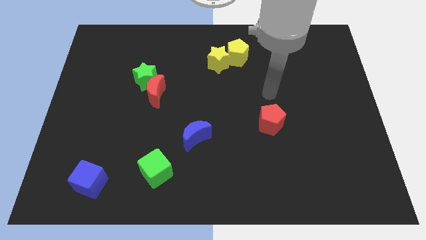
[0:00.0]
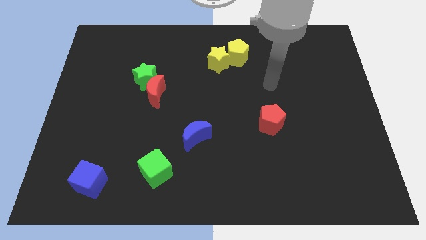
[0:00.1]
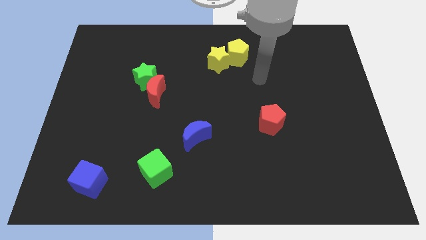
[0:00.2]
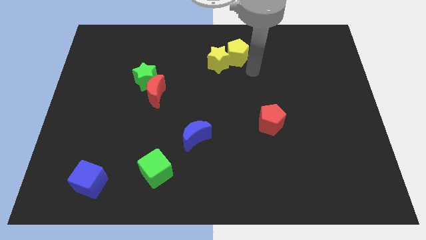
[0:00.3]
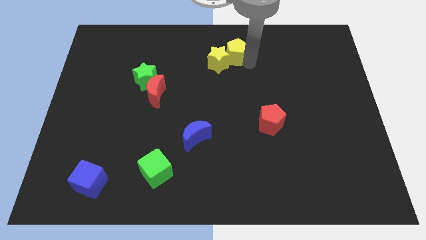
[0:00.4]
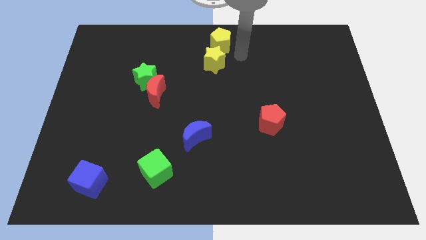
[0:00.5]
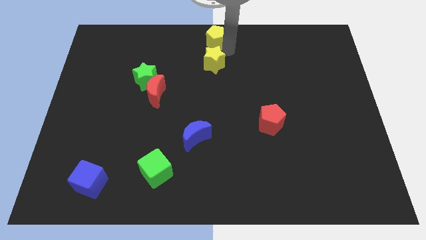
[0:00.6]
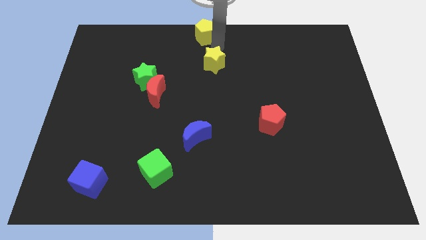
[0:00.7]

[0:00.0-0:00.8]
pull the yellow star apart from the yellow pentagon

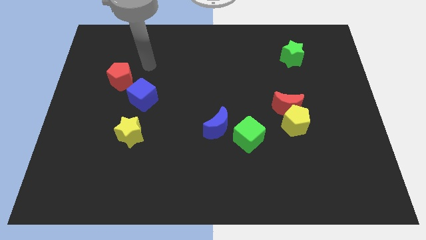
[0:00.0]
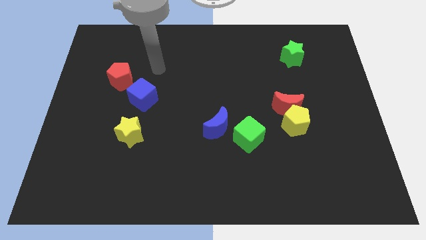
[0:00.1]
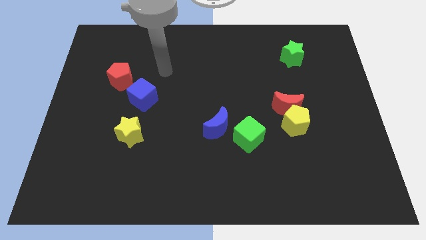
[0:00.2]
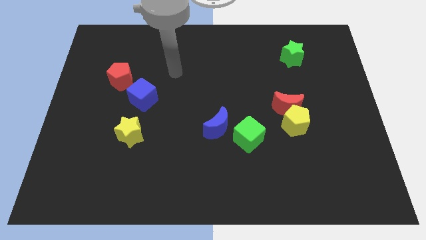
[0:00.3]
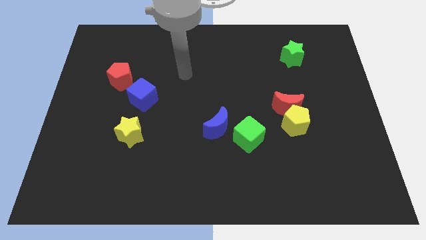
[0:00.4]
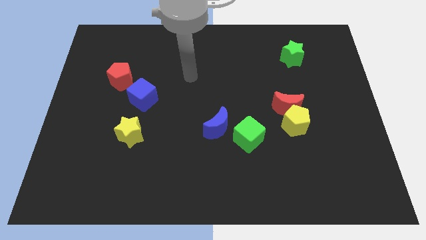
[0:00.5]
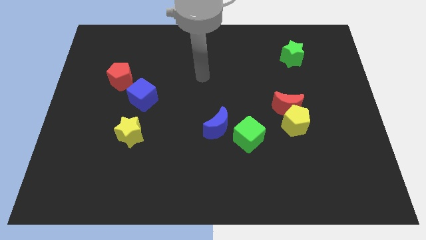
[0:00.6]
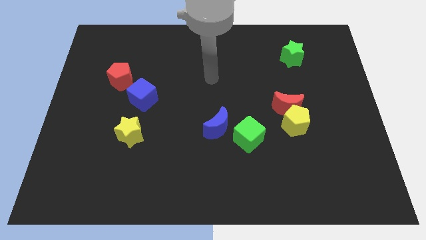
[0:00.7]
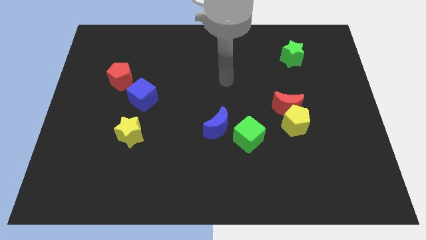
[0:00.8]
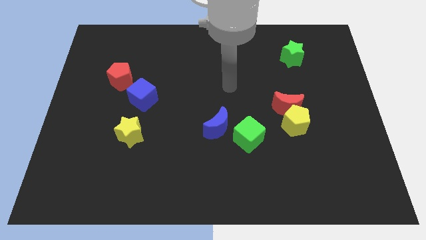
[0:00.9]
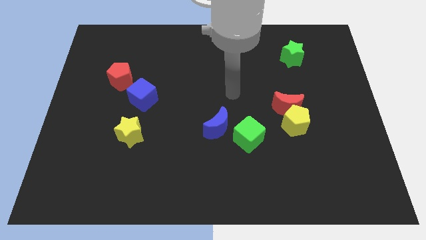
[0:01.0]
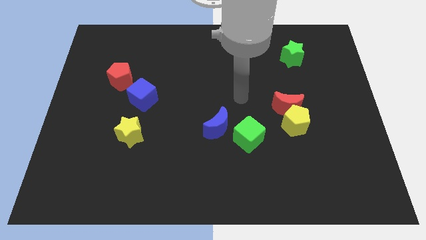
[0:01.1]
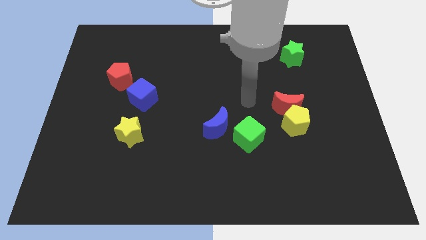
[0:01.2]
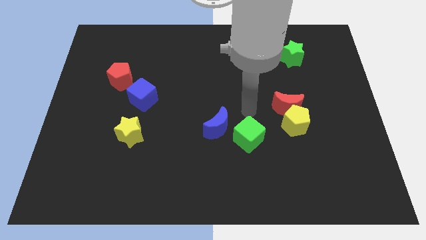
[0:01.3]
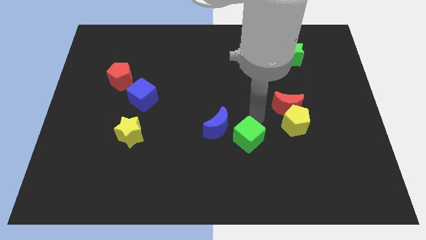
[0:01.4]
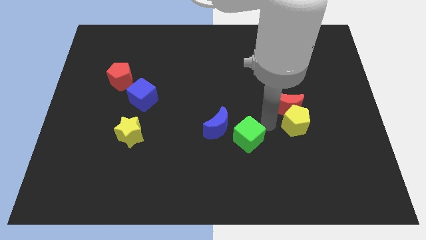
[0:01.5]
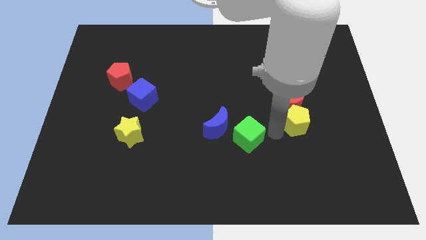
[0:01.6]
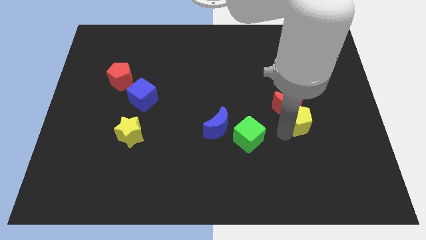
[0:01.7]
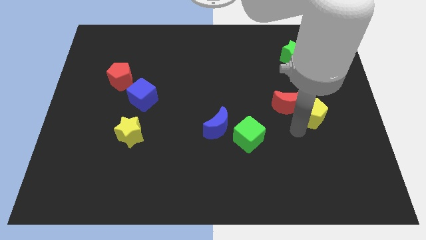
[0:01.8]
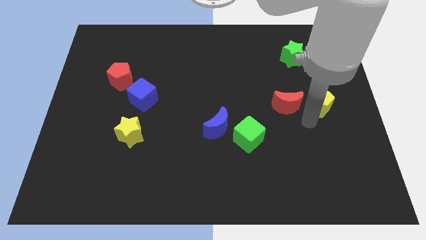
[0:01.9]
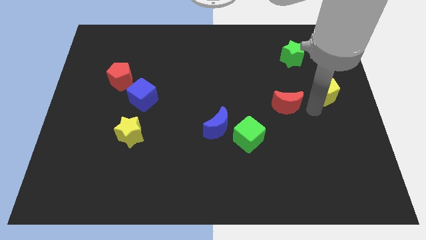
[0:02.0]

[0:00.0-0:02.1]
separate the red moon from the yellow pentagon

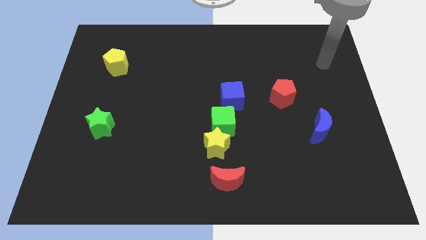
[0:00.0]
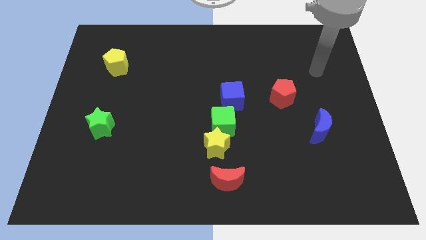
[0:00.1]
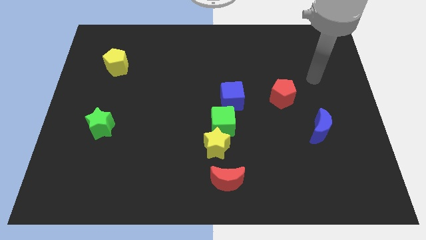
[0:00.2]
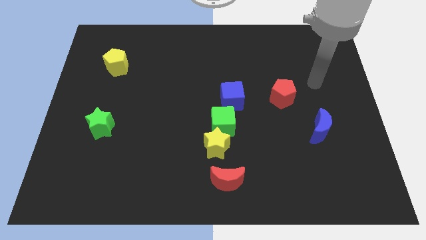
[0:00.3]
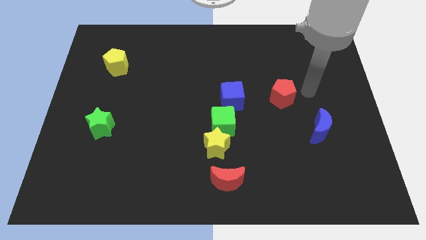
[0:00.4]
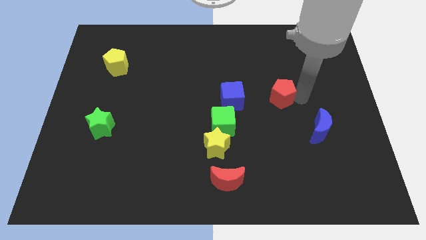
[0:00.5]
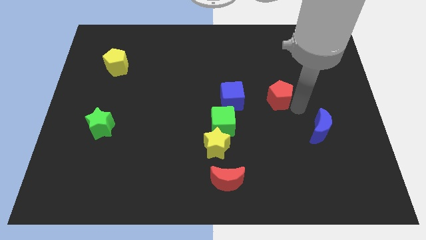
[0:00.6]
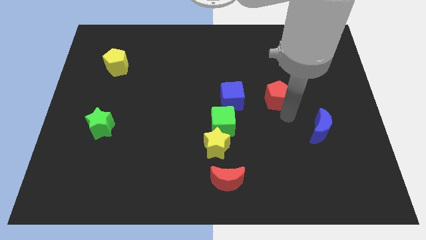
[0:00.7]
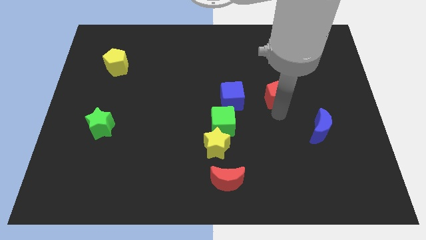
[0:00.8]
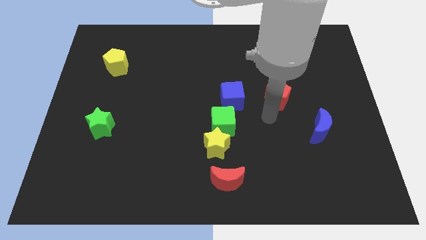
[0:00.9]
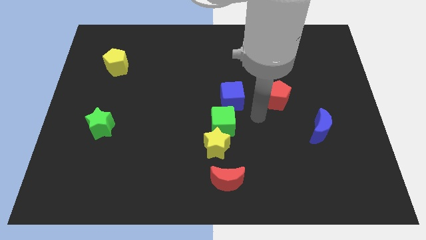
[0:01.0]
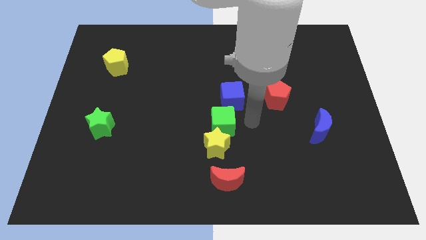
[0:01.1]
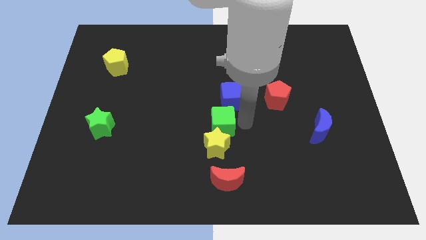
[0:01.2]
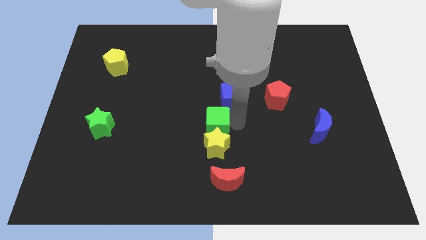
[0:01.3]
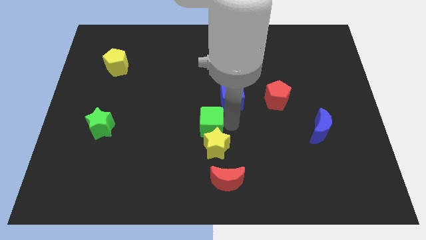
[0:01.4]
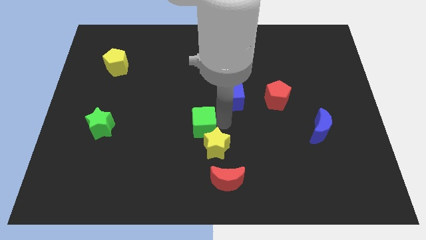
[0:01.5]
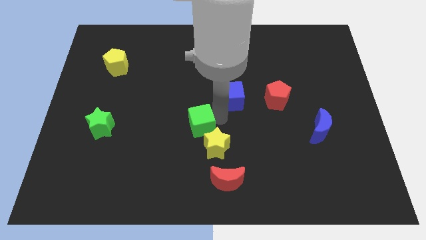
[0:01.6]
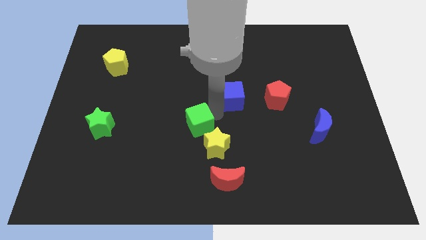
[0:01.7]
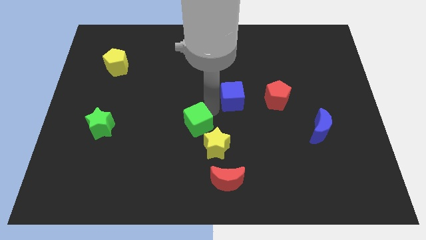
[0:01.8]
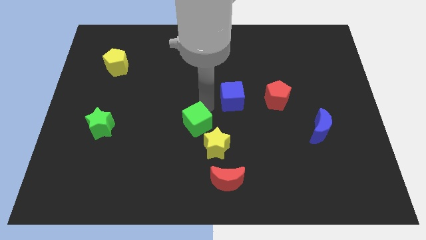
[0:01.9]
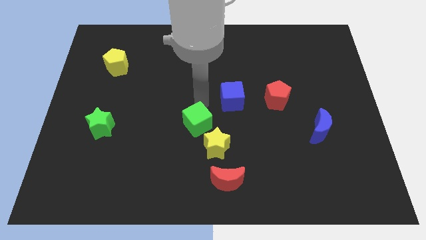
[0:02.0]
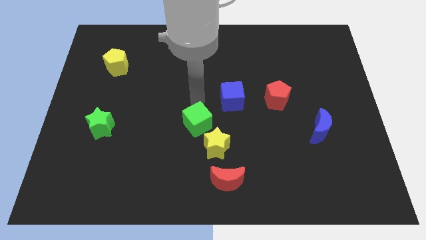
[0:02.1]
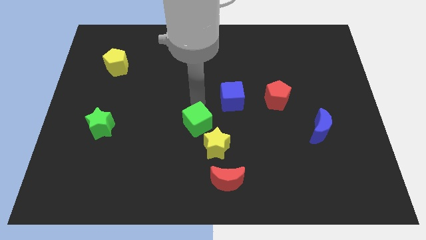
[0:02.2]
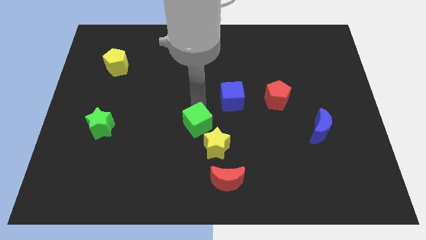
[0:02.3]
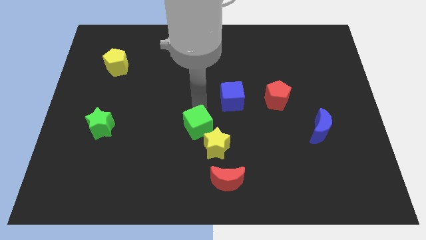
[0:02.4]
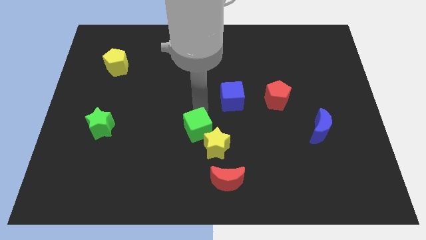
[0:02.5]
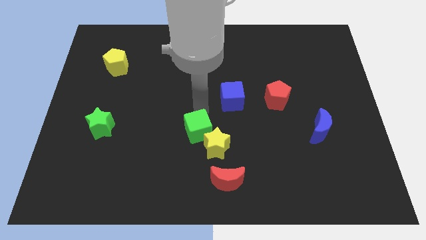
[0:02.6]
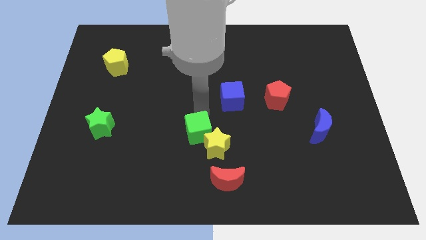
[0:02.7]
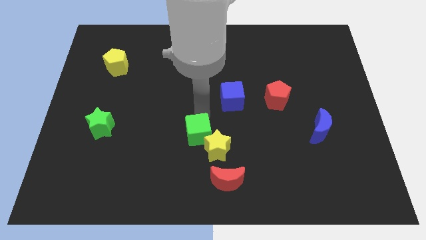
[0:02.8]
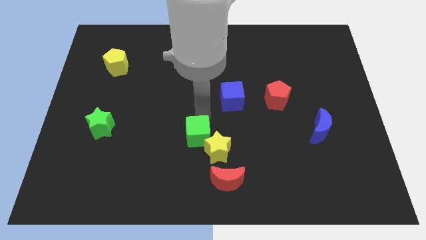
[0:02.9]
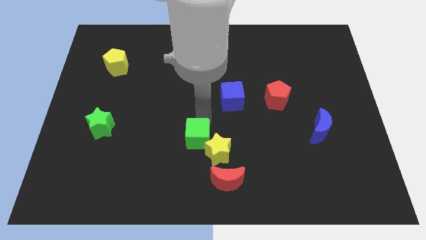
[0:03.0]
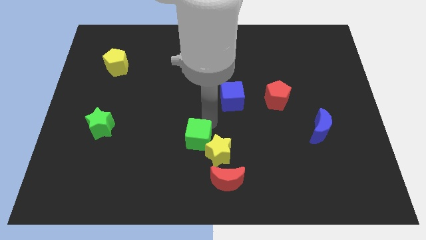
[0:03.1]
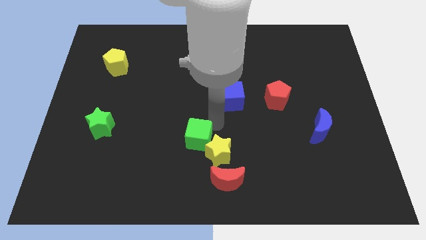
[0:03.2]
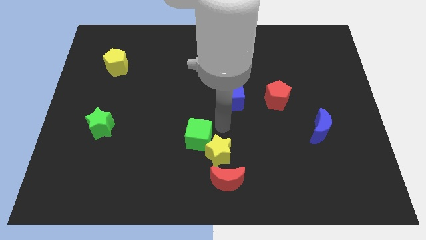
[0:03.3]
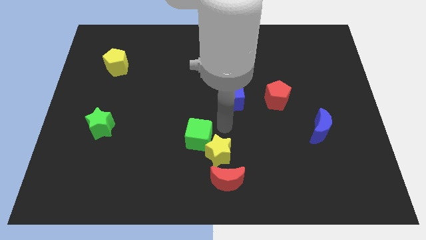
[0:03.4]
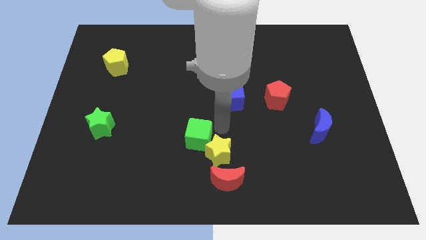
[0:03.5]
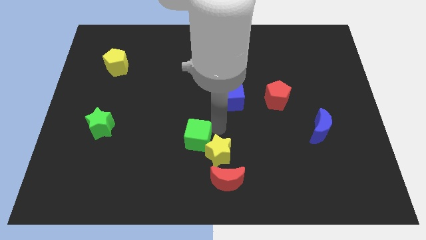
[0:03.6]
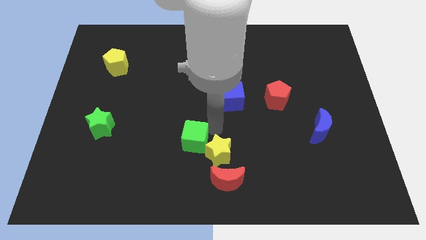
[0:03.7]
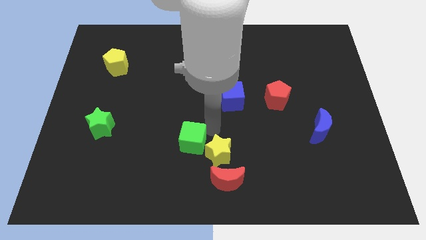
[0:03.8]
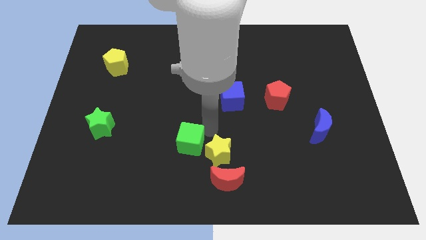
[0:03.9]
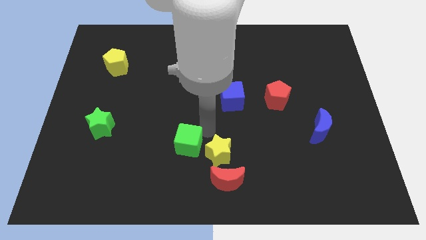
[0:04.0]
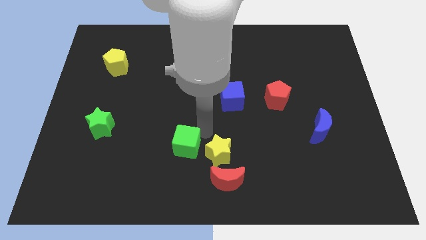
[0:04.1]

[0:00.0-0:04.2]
separate the green cube from the yellow star and blue cube

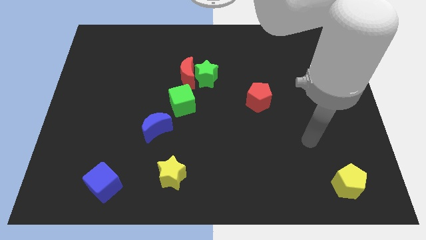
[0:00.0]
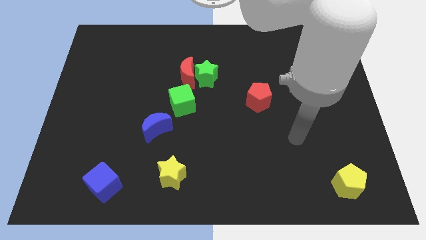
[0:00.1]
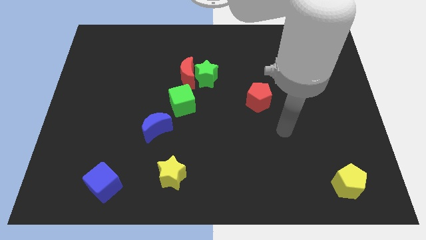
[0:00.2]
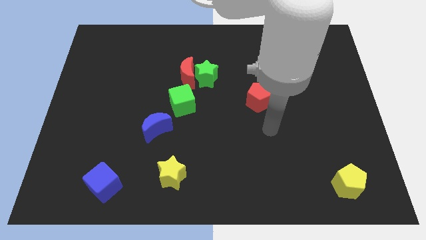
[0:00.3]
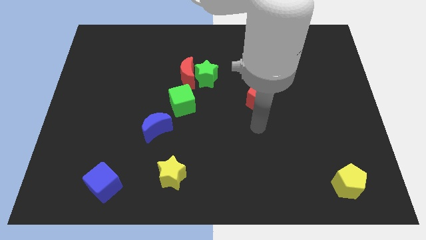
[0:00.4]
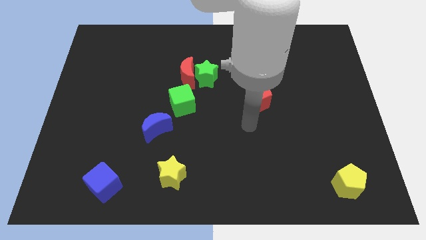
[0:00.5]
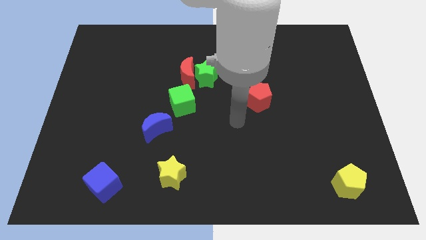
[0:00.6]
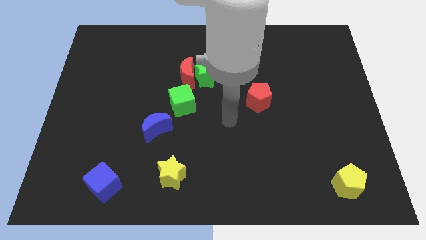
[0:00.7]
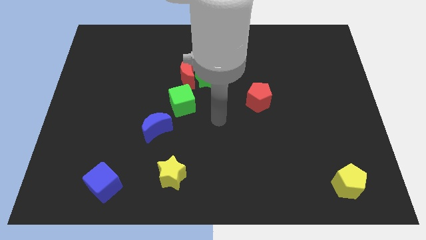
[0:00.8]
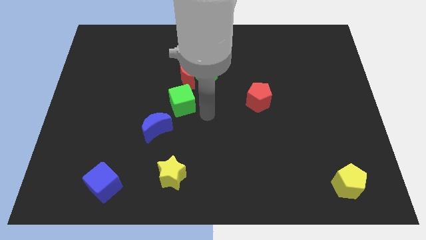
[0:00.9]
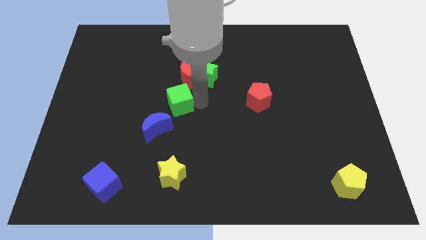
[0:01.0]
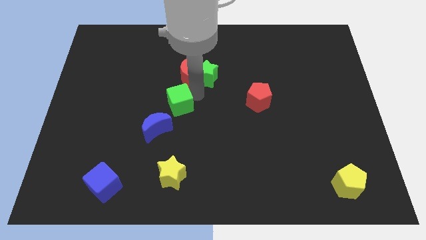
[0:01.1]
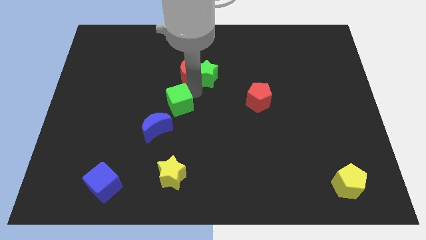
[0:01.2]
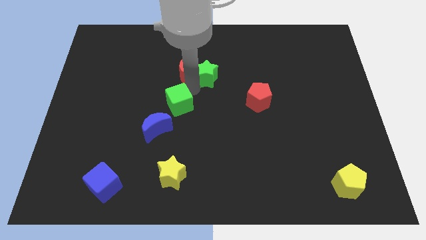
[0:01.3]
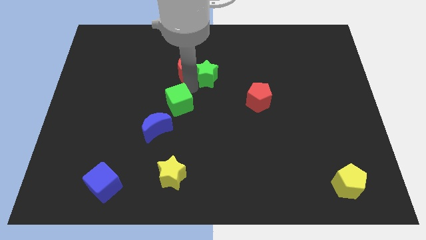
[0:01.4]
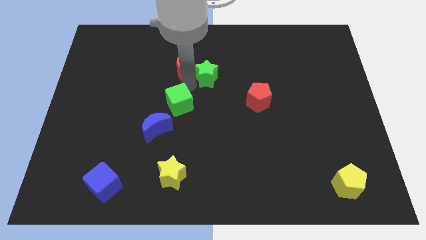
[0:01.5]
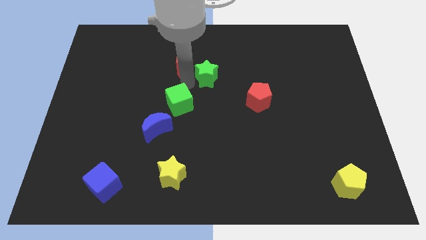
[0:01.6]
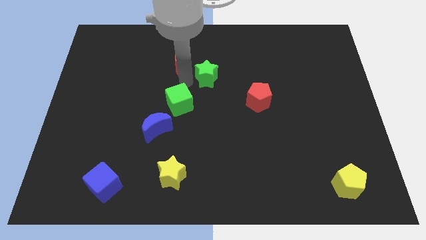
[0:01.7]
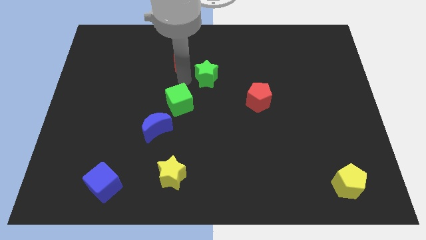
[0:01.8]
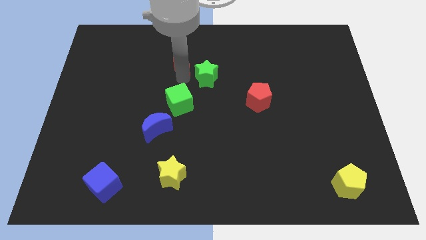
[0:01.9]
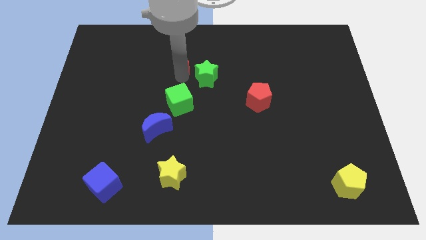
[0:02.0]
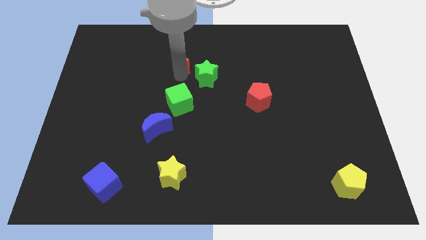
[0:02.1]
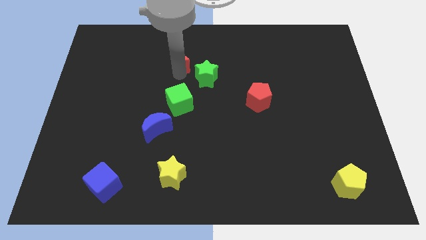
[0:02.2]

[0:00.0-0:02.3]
pull the red moon apart from the green star and green cube
